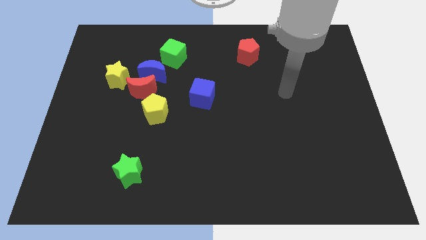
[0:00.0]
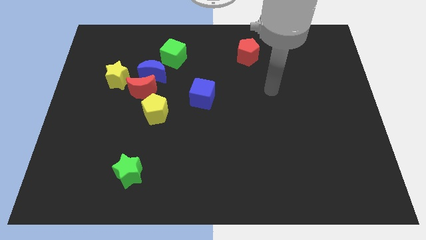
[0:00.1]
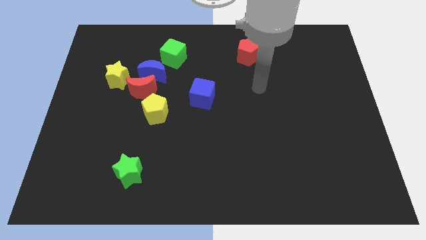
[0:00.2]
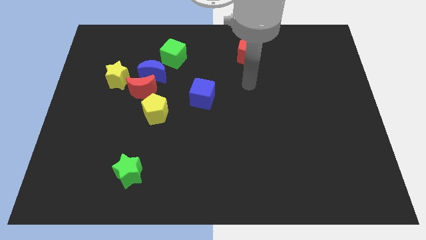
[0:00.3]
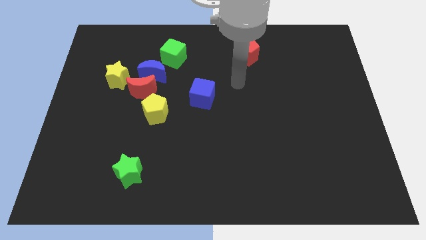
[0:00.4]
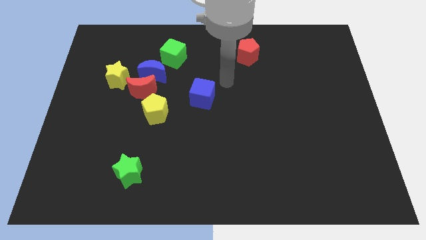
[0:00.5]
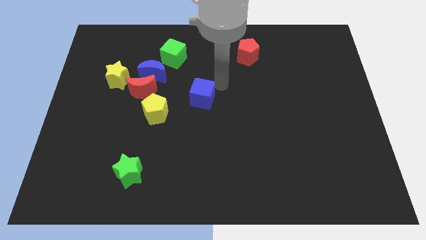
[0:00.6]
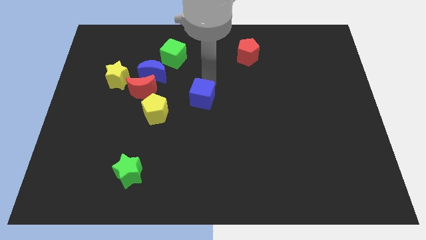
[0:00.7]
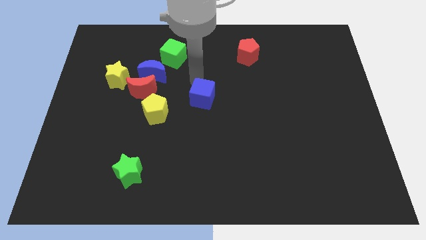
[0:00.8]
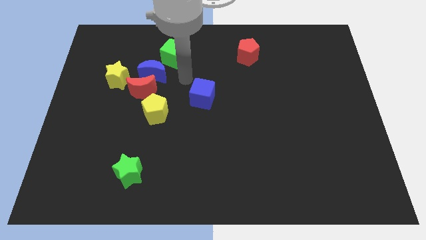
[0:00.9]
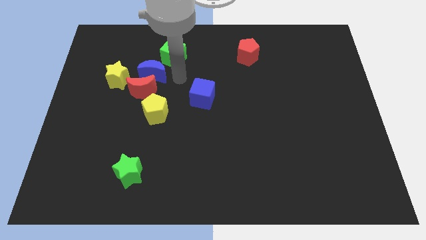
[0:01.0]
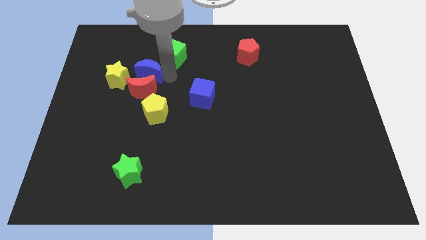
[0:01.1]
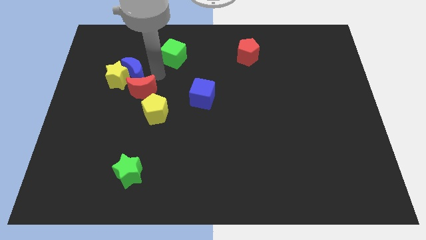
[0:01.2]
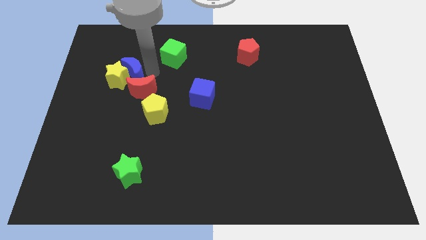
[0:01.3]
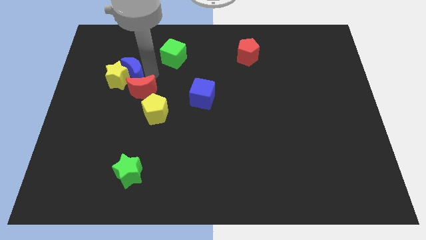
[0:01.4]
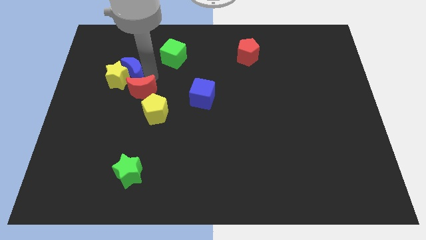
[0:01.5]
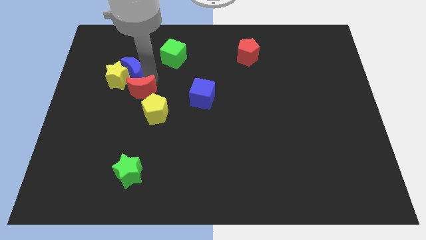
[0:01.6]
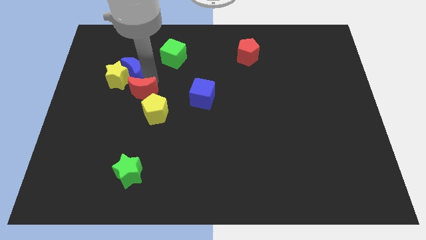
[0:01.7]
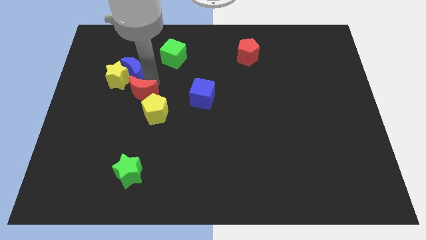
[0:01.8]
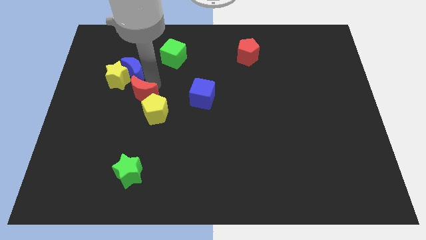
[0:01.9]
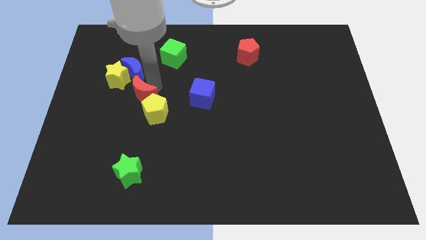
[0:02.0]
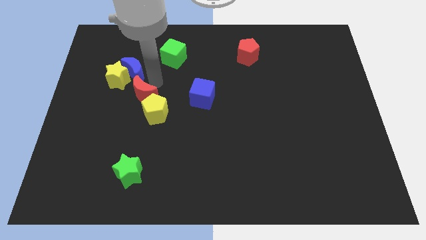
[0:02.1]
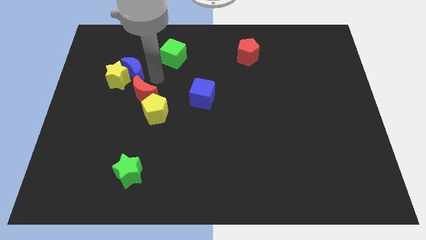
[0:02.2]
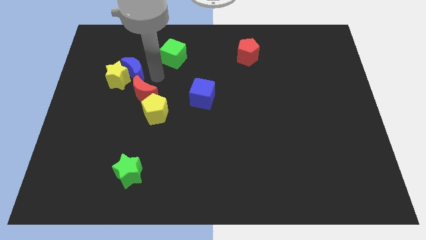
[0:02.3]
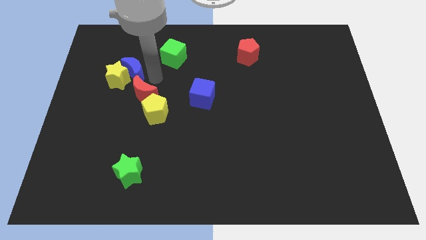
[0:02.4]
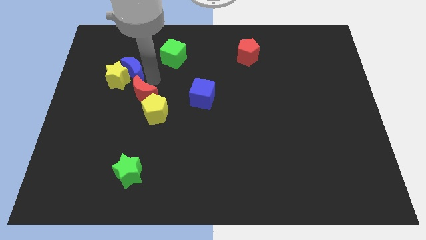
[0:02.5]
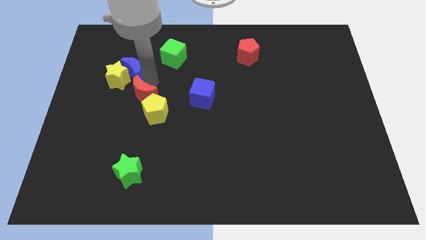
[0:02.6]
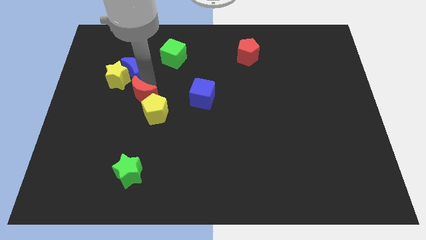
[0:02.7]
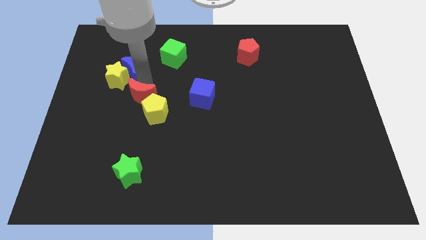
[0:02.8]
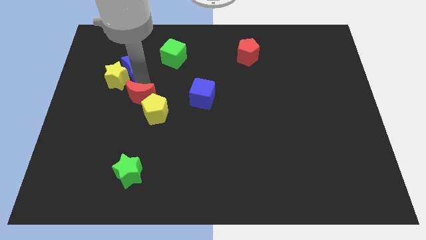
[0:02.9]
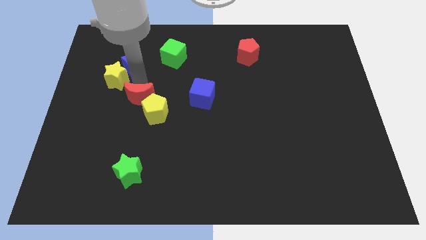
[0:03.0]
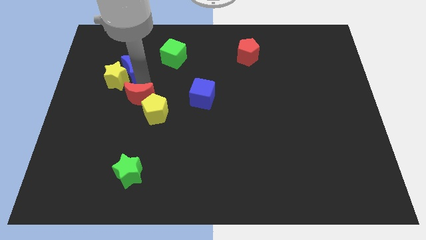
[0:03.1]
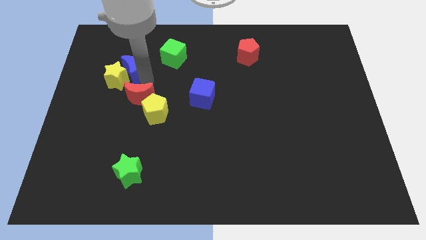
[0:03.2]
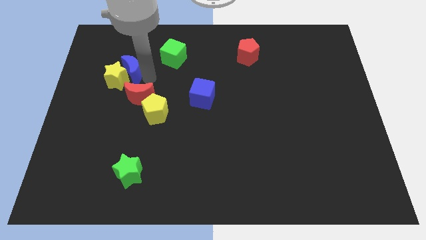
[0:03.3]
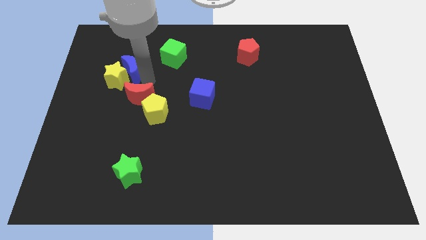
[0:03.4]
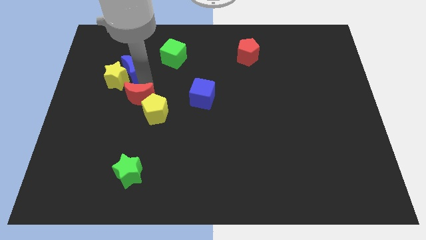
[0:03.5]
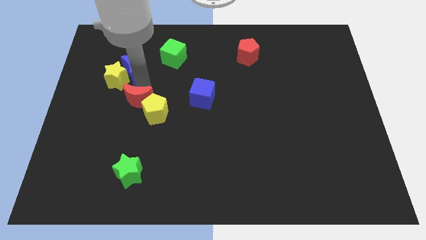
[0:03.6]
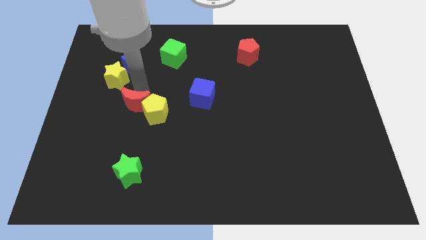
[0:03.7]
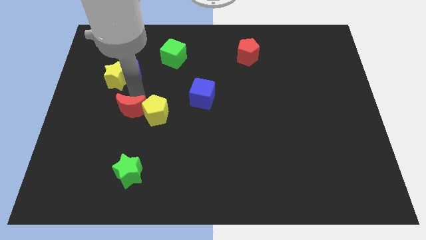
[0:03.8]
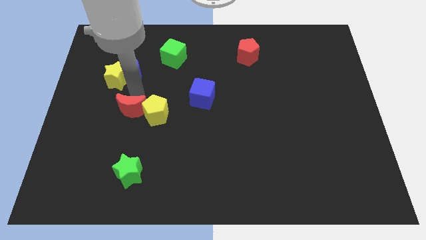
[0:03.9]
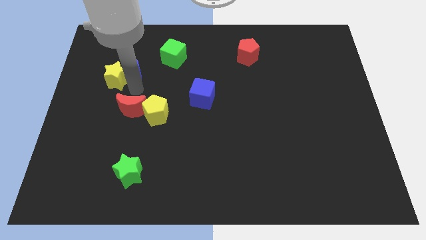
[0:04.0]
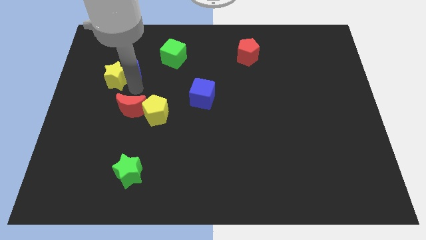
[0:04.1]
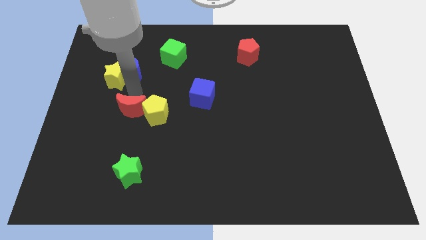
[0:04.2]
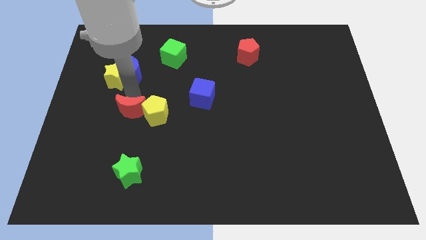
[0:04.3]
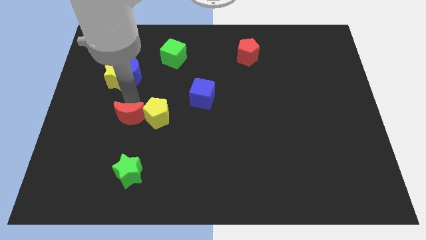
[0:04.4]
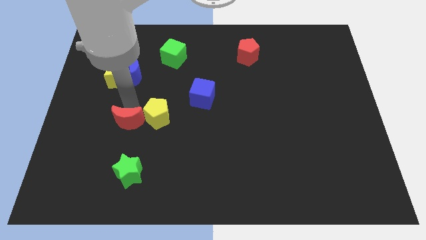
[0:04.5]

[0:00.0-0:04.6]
separate the red moon from the blue moon, yellow star, and yellow pentagon

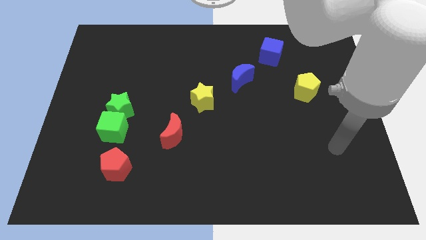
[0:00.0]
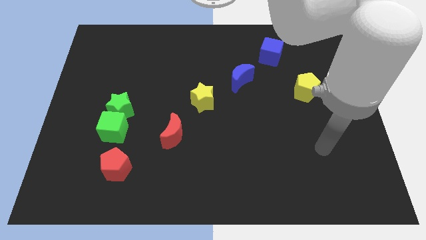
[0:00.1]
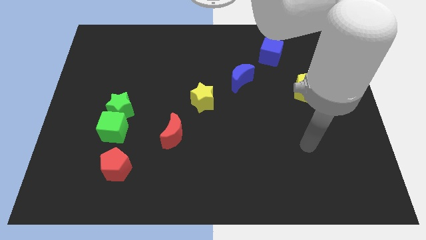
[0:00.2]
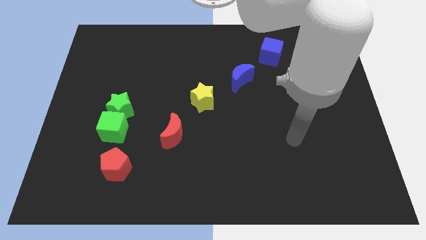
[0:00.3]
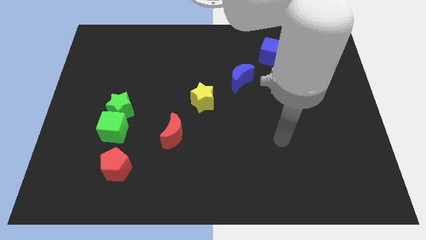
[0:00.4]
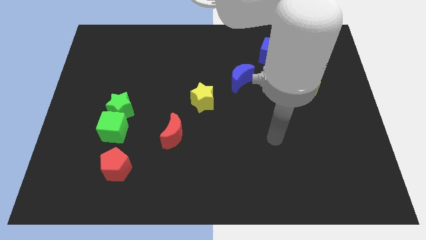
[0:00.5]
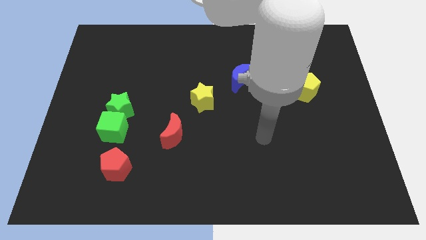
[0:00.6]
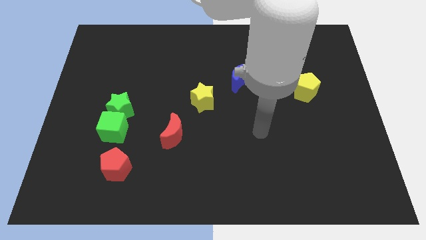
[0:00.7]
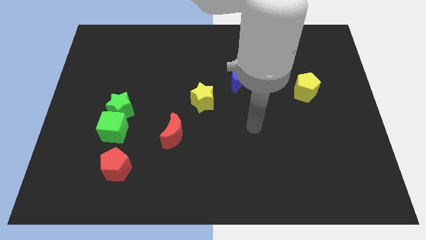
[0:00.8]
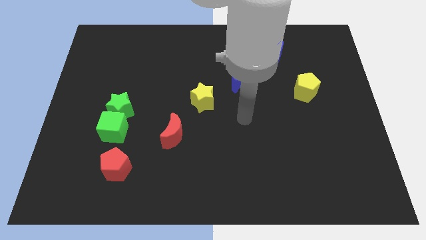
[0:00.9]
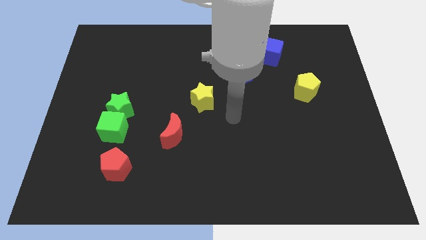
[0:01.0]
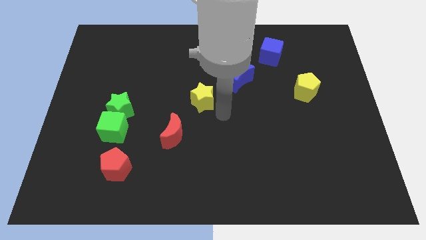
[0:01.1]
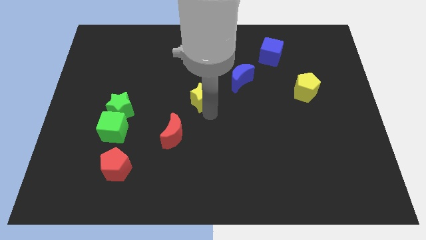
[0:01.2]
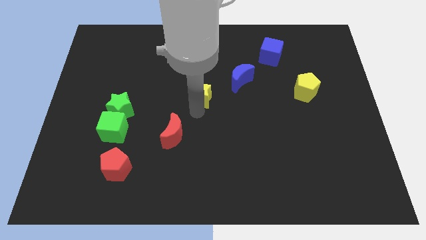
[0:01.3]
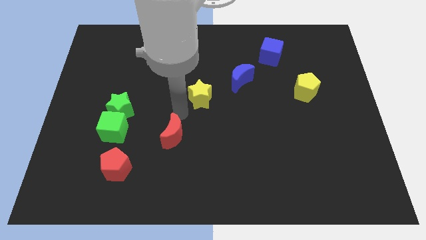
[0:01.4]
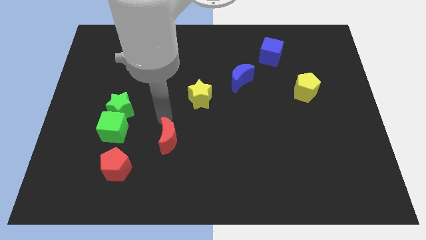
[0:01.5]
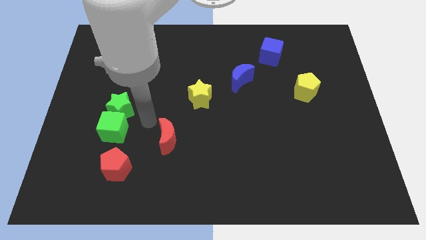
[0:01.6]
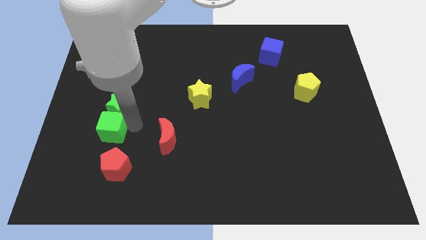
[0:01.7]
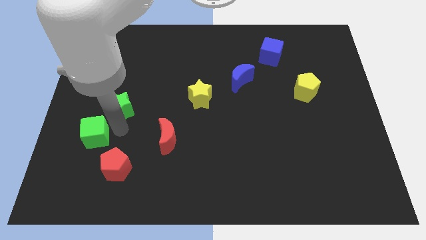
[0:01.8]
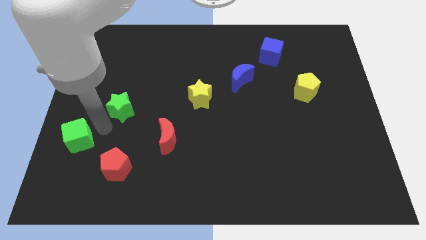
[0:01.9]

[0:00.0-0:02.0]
move the green star away from the green cube

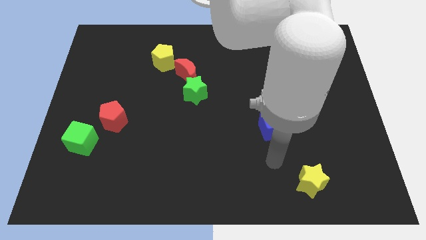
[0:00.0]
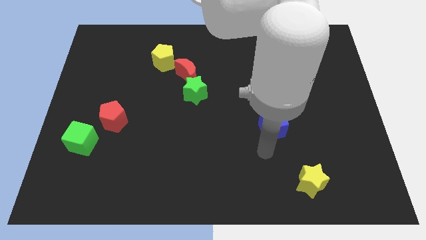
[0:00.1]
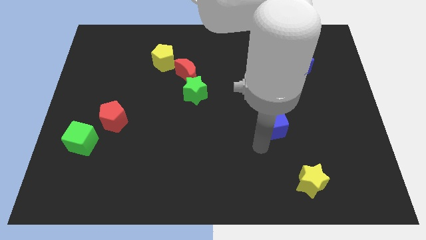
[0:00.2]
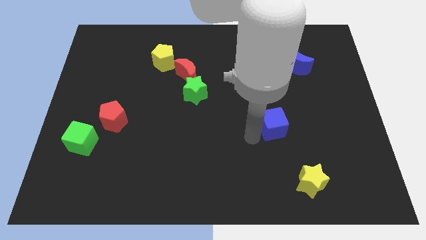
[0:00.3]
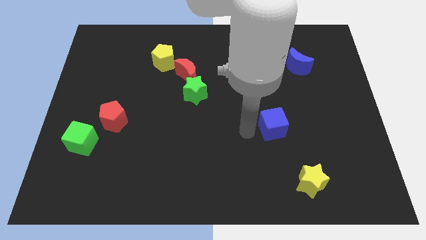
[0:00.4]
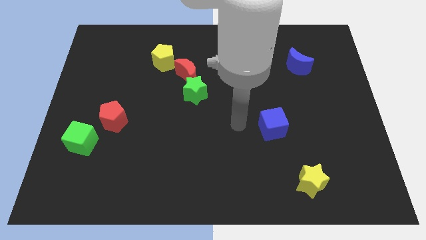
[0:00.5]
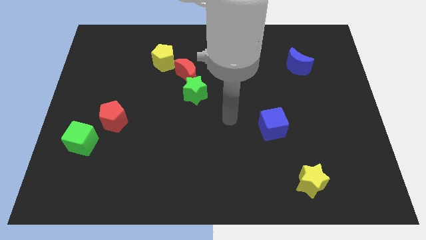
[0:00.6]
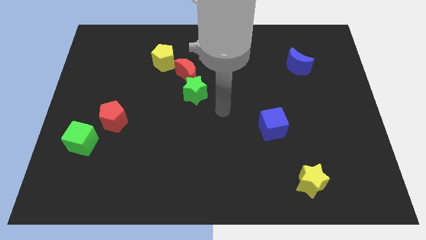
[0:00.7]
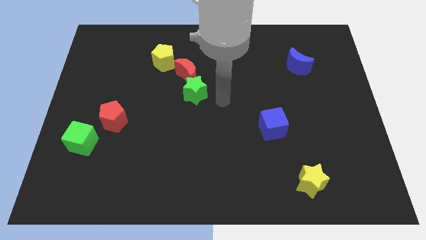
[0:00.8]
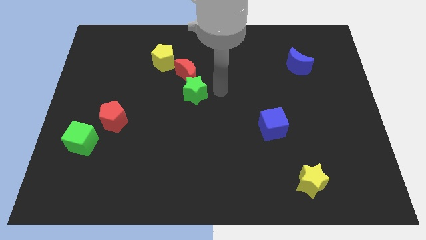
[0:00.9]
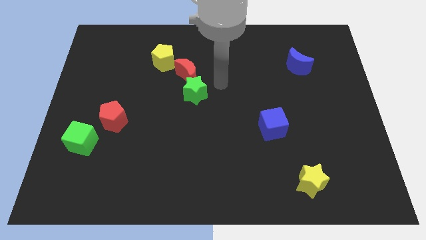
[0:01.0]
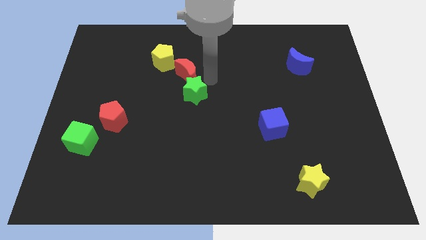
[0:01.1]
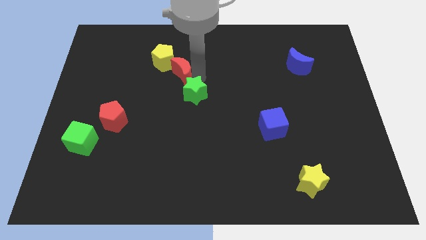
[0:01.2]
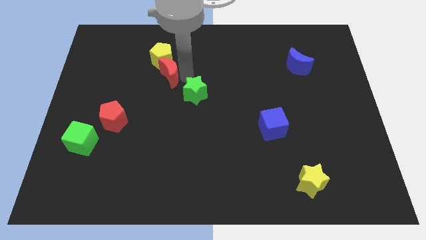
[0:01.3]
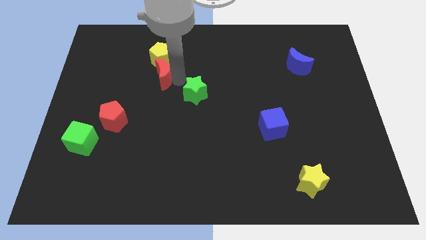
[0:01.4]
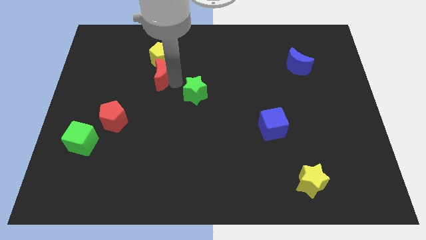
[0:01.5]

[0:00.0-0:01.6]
move the green star away from the red moon

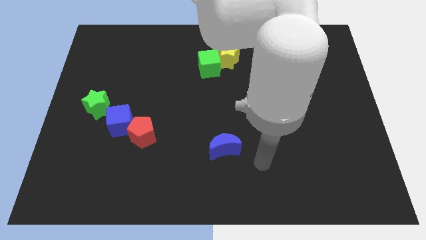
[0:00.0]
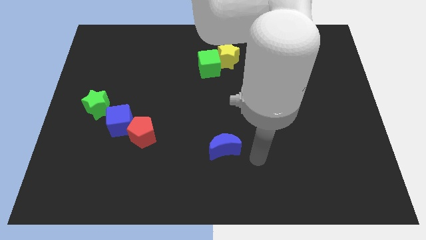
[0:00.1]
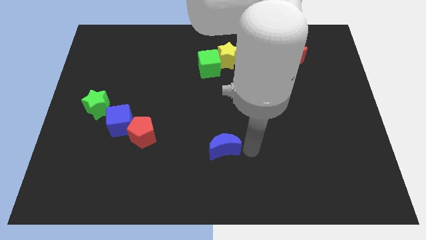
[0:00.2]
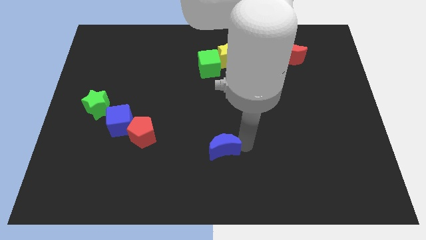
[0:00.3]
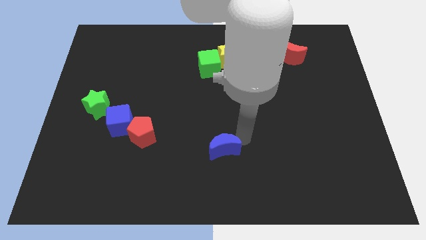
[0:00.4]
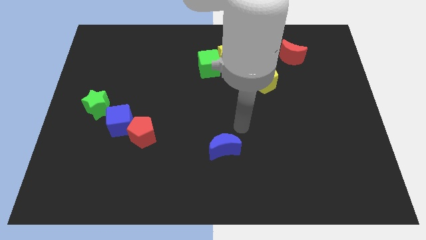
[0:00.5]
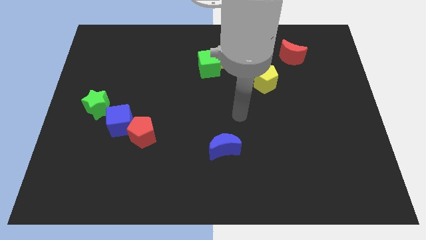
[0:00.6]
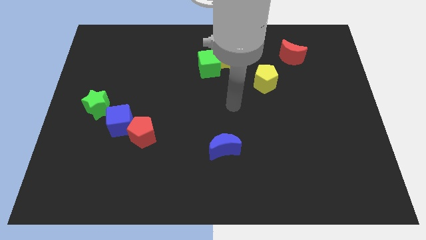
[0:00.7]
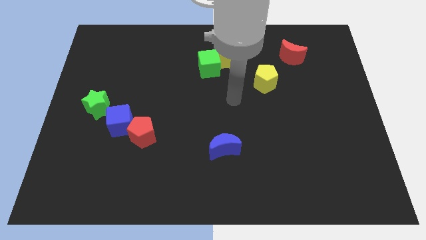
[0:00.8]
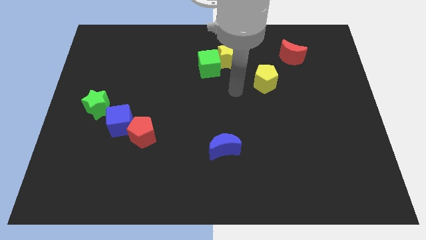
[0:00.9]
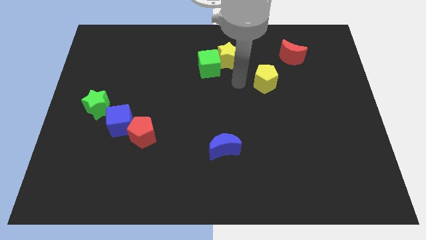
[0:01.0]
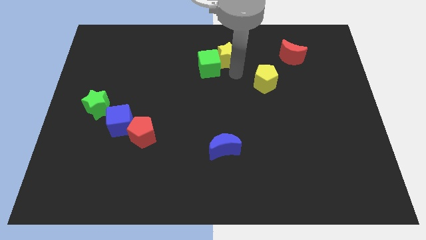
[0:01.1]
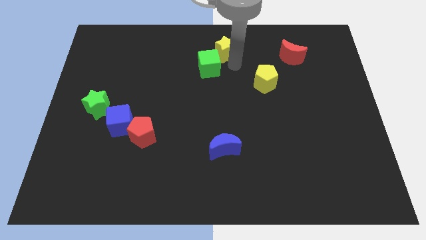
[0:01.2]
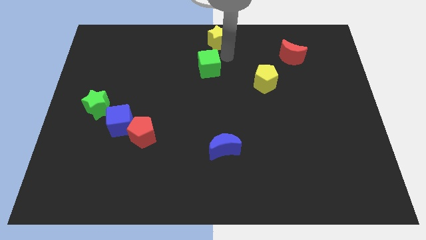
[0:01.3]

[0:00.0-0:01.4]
move the green cube away from the yellow star
